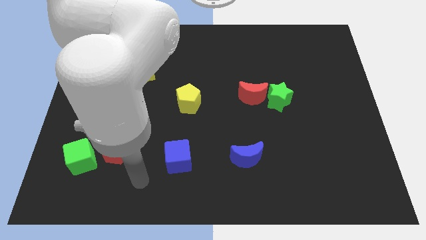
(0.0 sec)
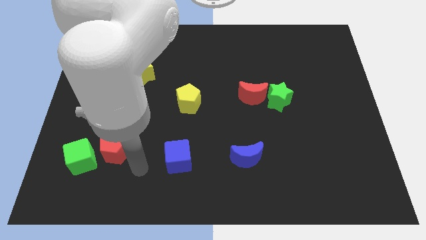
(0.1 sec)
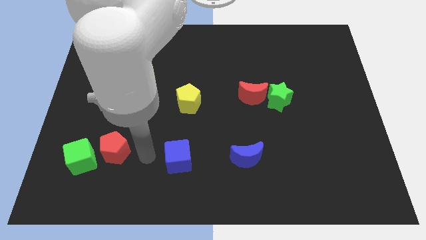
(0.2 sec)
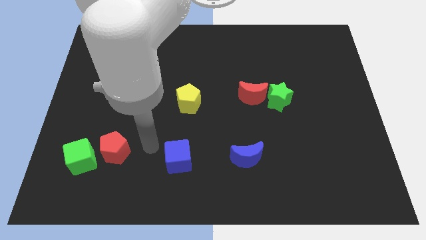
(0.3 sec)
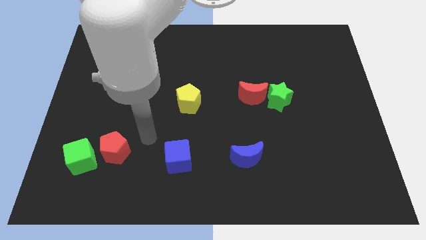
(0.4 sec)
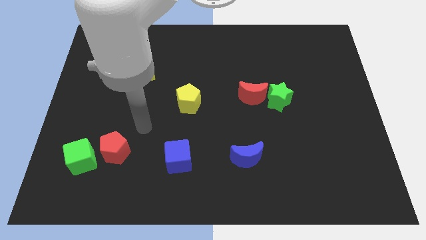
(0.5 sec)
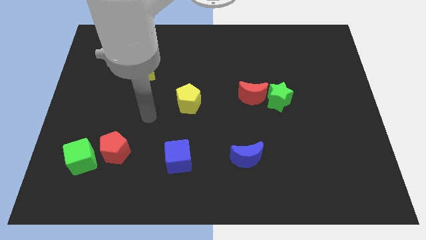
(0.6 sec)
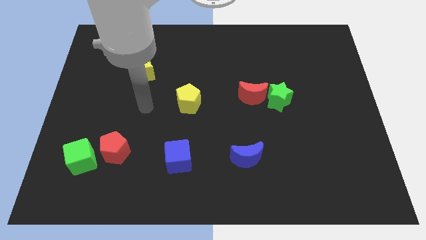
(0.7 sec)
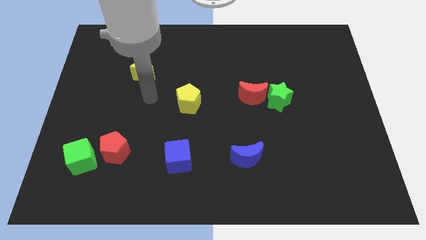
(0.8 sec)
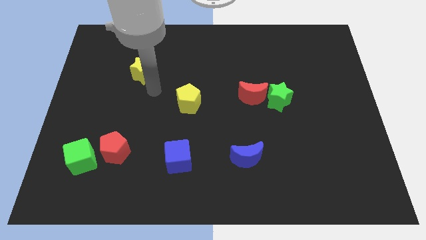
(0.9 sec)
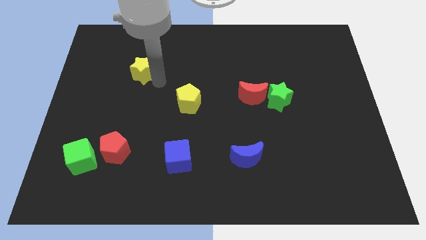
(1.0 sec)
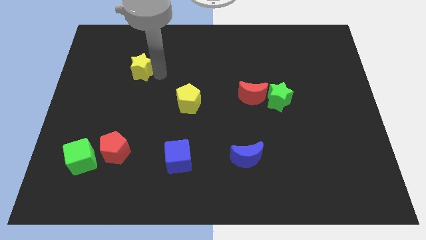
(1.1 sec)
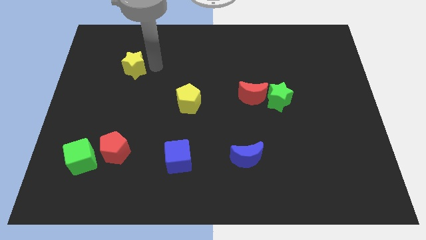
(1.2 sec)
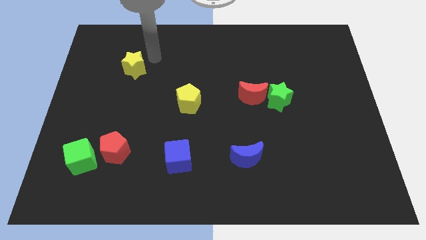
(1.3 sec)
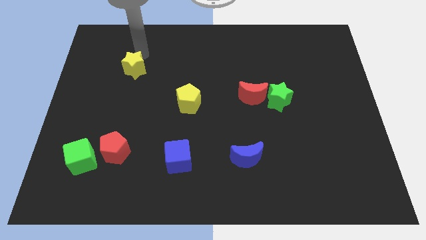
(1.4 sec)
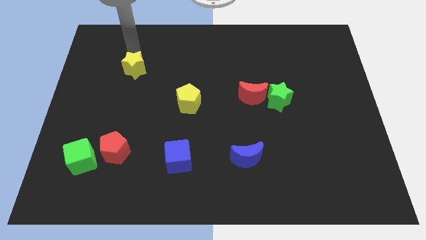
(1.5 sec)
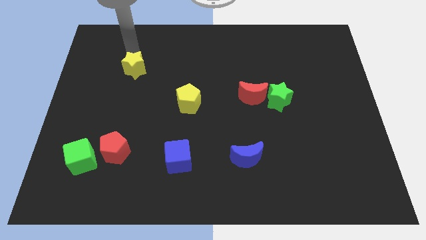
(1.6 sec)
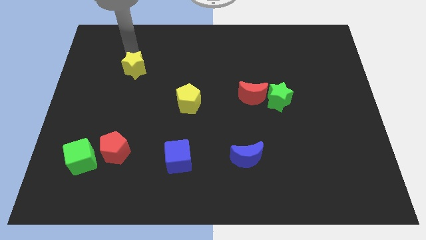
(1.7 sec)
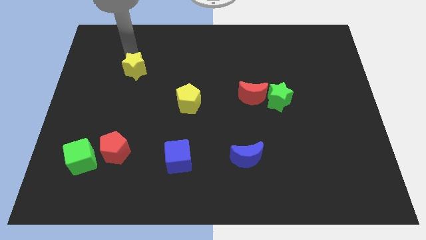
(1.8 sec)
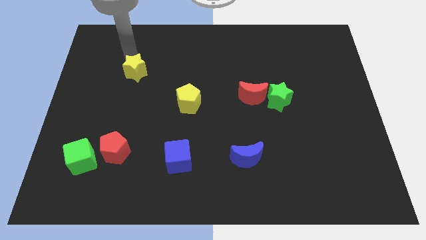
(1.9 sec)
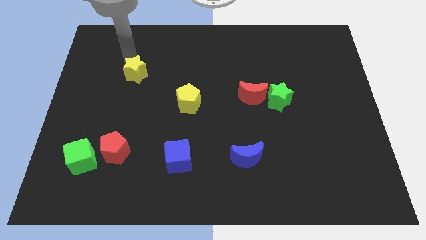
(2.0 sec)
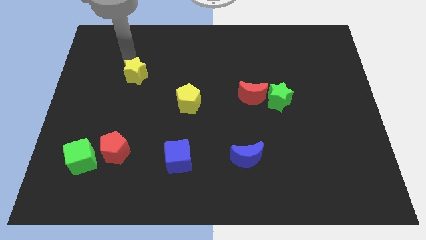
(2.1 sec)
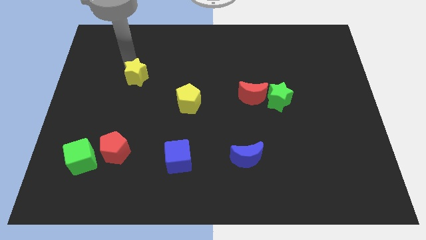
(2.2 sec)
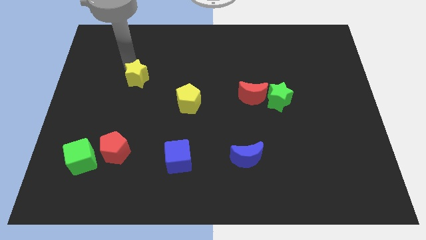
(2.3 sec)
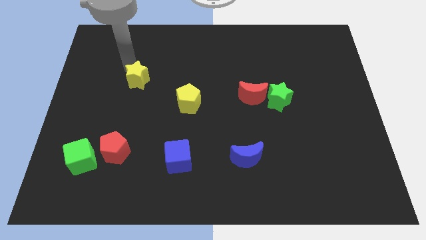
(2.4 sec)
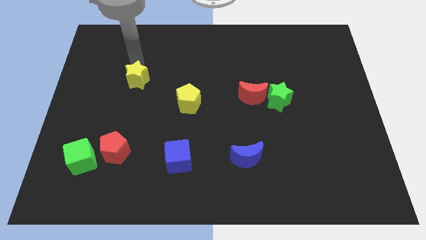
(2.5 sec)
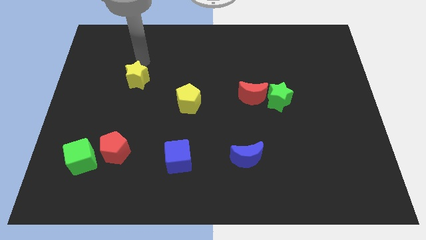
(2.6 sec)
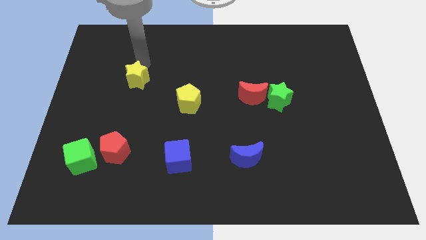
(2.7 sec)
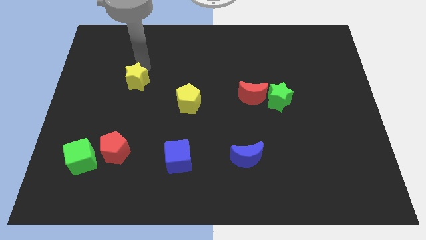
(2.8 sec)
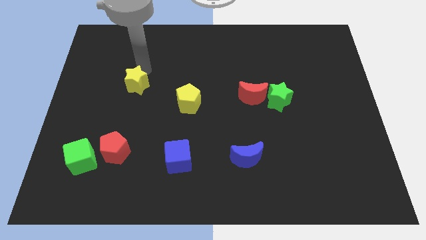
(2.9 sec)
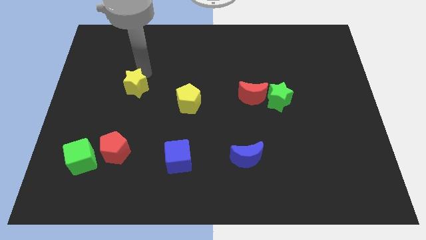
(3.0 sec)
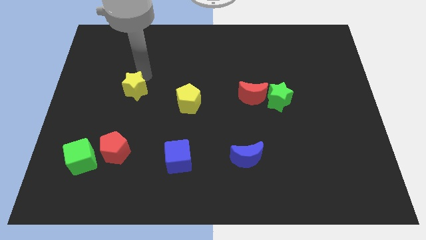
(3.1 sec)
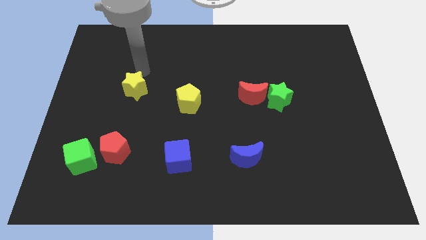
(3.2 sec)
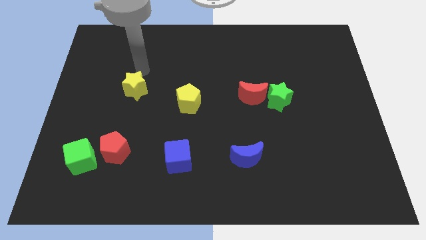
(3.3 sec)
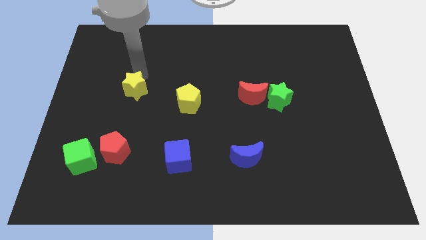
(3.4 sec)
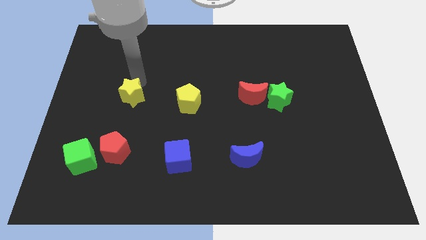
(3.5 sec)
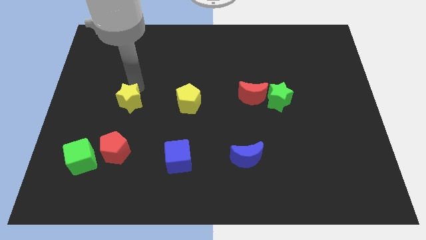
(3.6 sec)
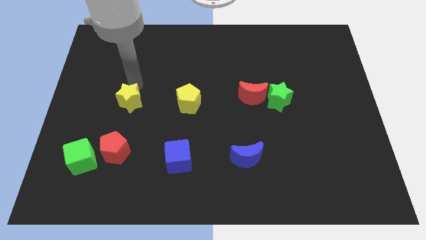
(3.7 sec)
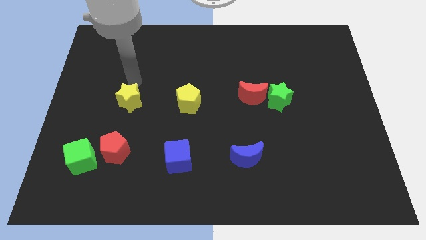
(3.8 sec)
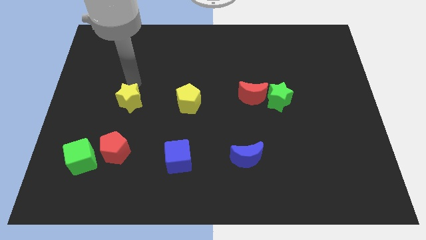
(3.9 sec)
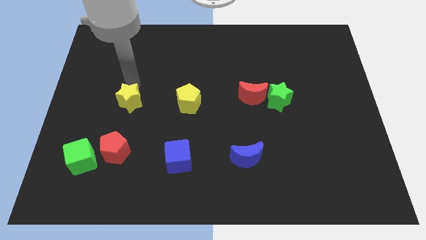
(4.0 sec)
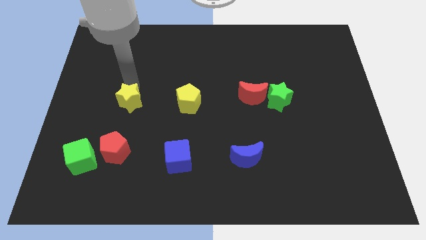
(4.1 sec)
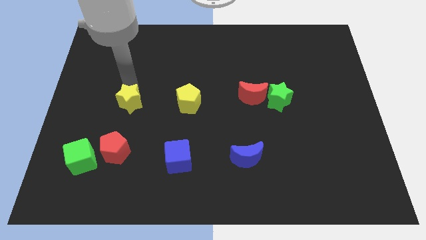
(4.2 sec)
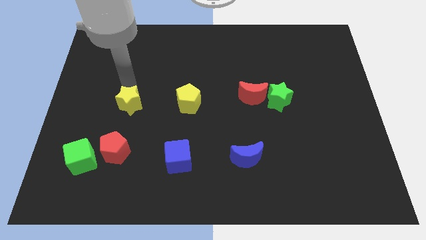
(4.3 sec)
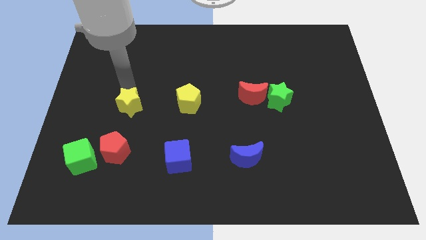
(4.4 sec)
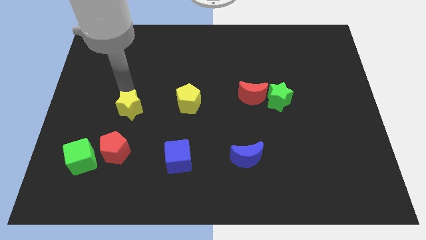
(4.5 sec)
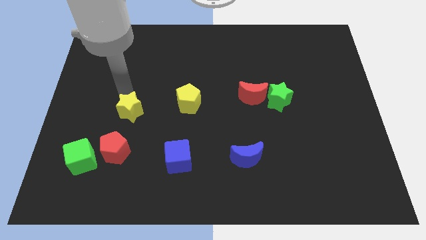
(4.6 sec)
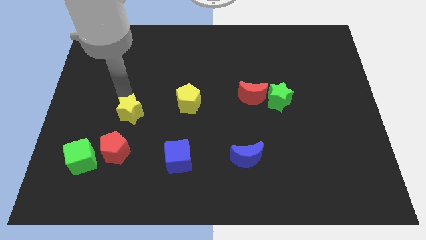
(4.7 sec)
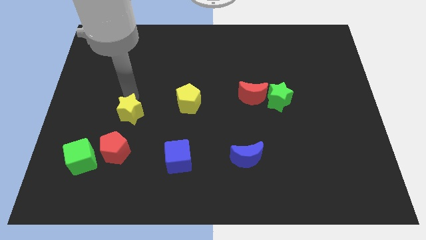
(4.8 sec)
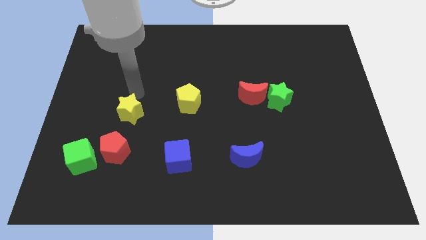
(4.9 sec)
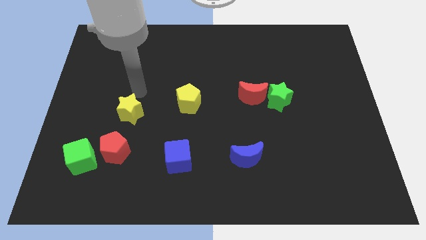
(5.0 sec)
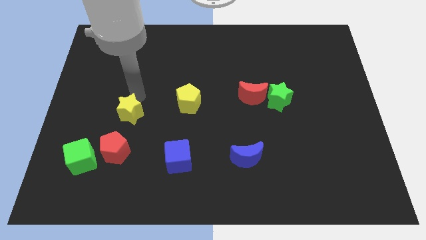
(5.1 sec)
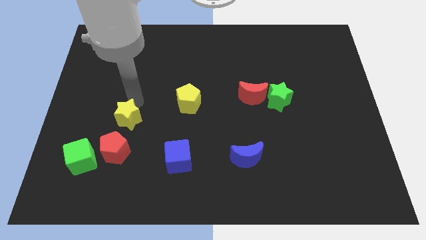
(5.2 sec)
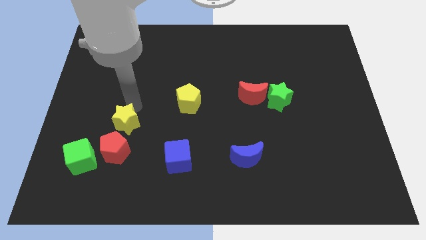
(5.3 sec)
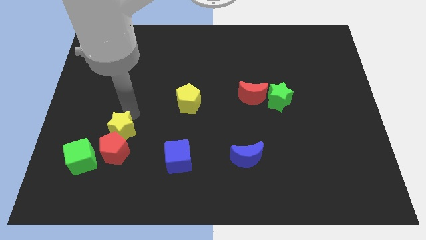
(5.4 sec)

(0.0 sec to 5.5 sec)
put the yellow star towards the red pentagon

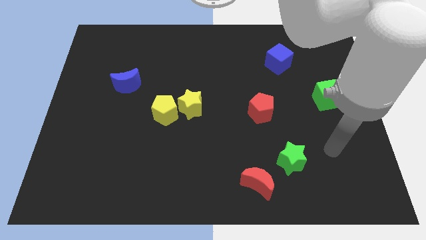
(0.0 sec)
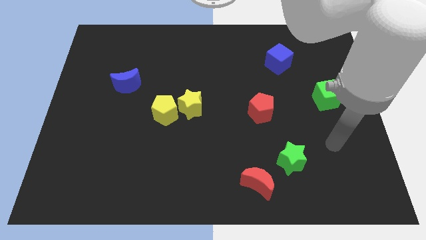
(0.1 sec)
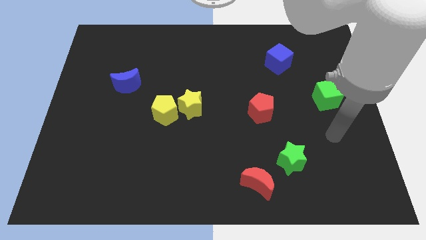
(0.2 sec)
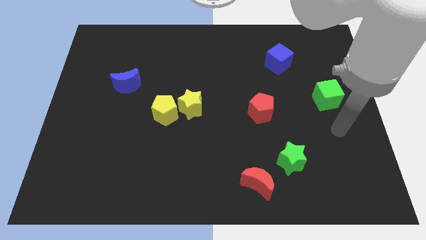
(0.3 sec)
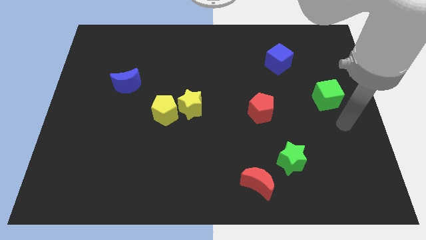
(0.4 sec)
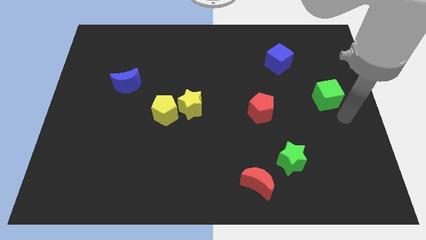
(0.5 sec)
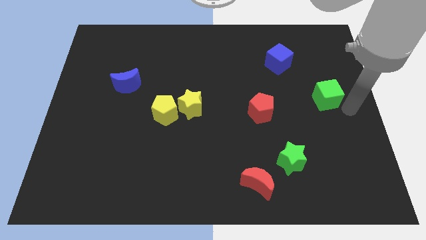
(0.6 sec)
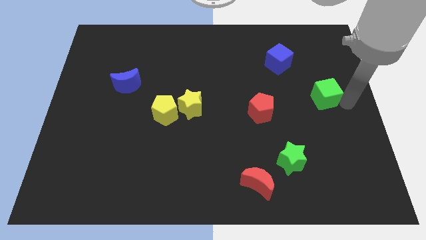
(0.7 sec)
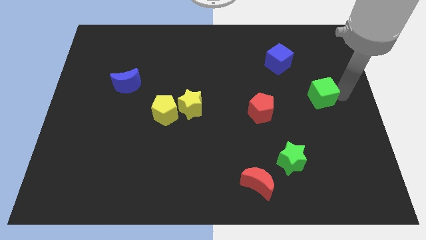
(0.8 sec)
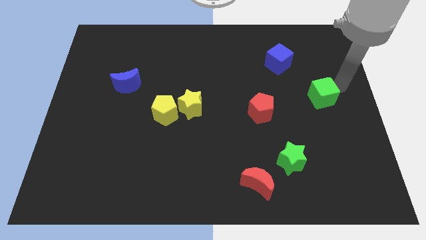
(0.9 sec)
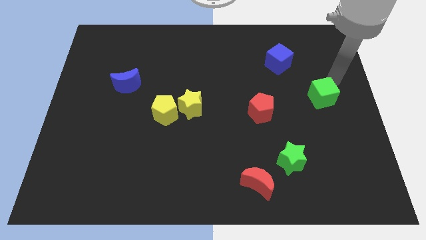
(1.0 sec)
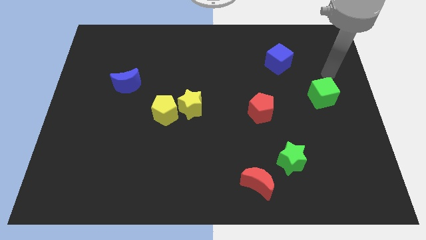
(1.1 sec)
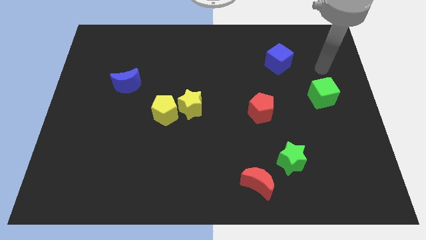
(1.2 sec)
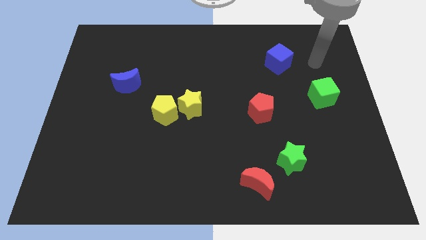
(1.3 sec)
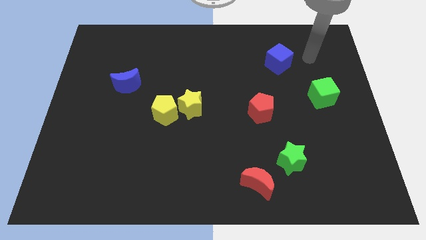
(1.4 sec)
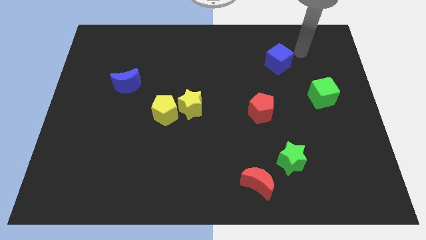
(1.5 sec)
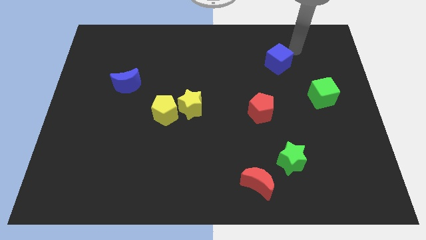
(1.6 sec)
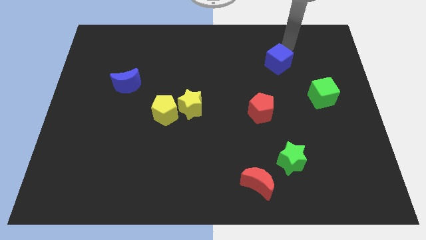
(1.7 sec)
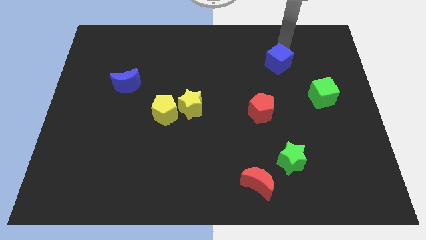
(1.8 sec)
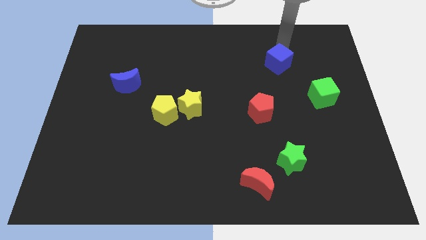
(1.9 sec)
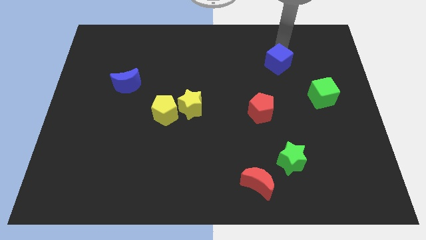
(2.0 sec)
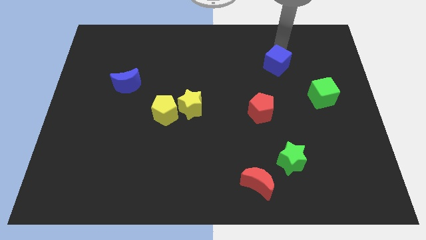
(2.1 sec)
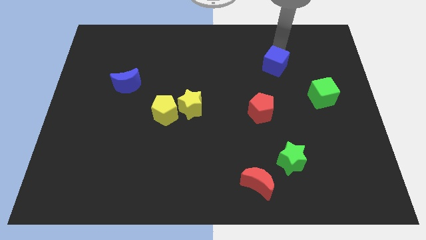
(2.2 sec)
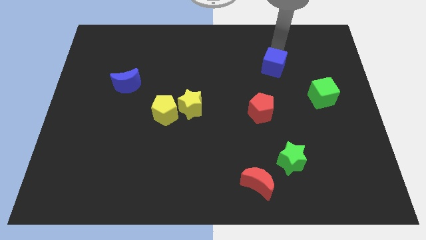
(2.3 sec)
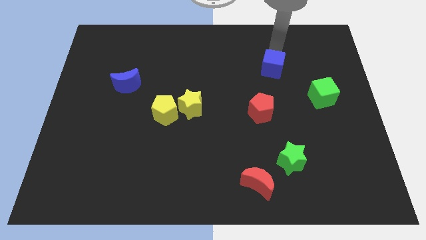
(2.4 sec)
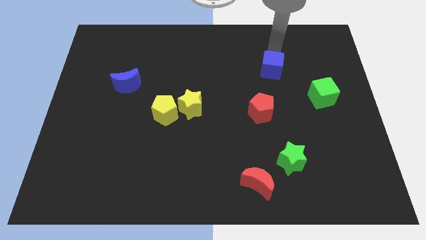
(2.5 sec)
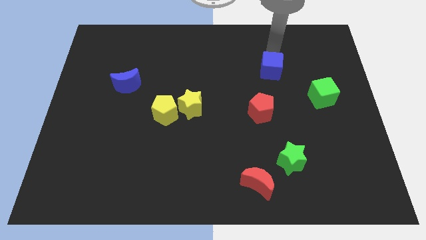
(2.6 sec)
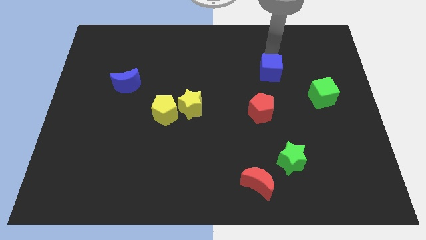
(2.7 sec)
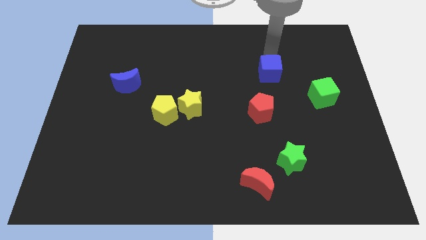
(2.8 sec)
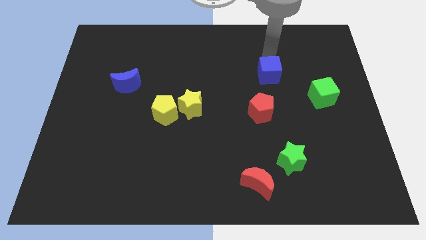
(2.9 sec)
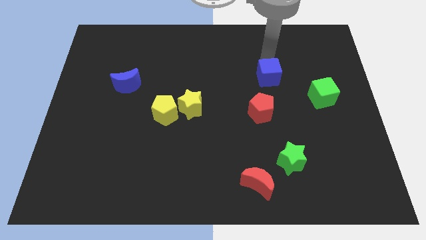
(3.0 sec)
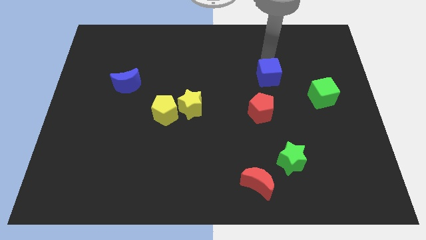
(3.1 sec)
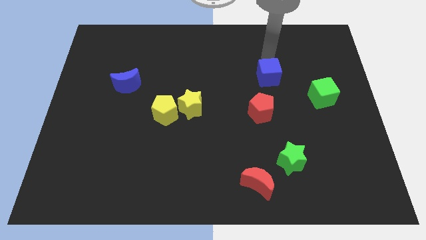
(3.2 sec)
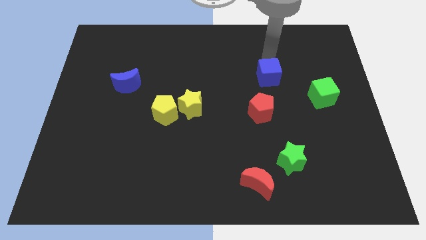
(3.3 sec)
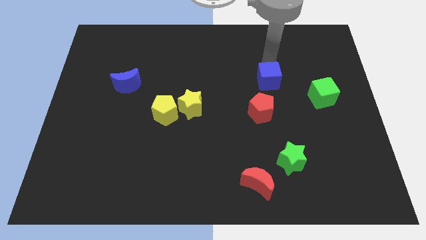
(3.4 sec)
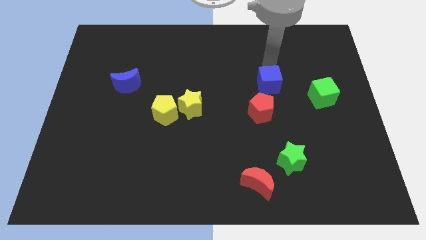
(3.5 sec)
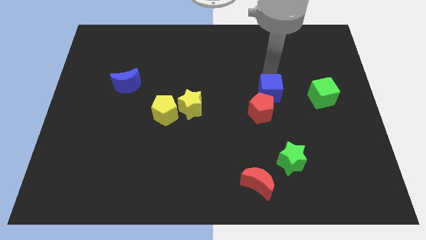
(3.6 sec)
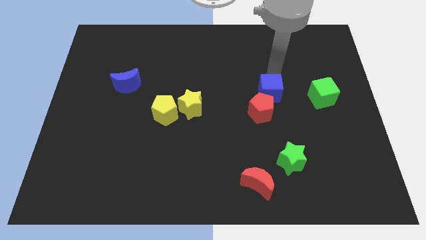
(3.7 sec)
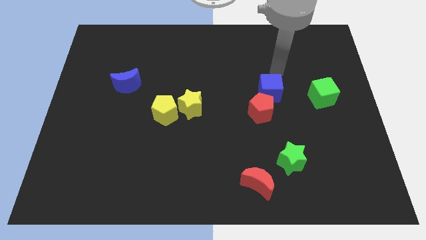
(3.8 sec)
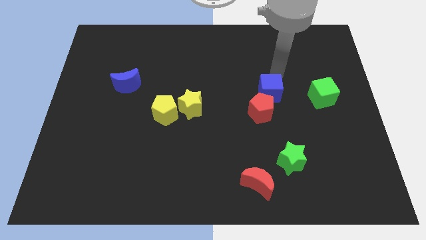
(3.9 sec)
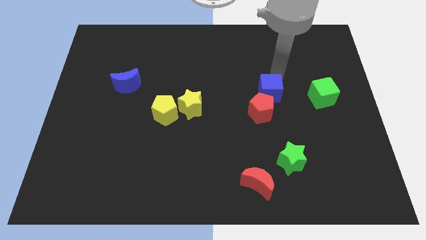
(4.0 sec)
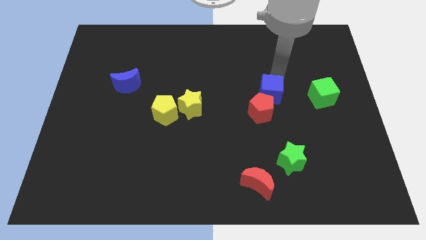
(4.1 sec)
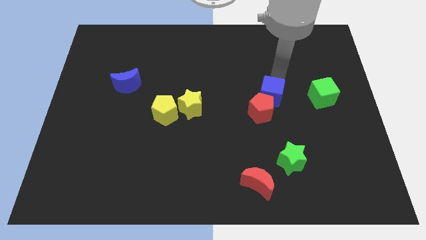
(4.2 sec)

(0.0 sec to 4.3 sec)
put the blue cube close to the red pentagon
